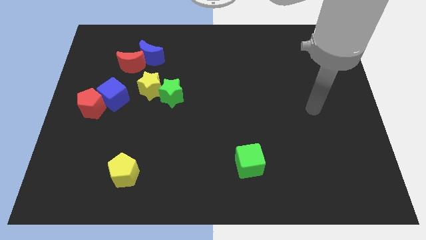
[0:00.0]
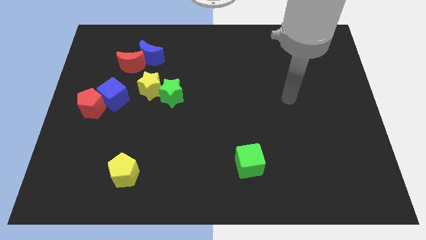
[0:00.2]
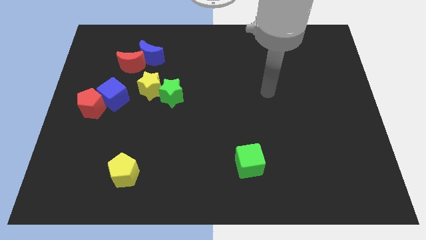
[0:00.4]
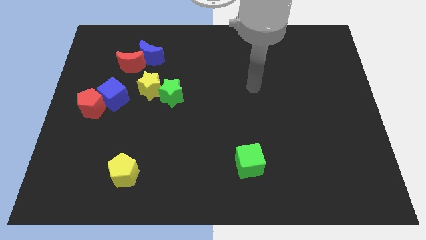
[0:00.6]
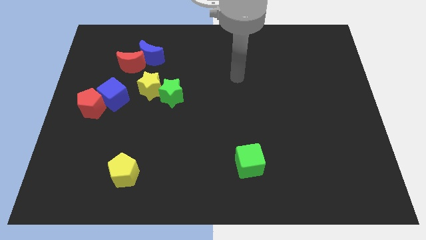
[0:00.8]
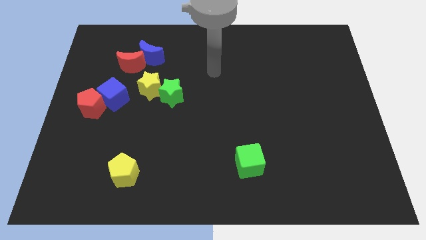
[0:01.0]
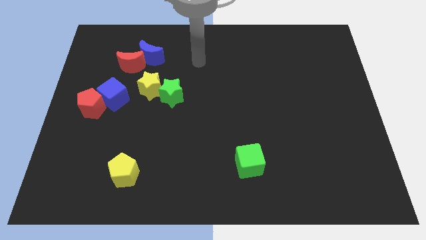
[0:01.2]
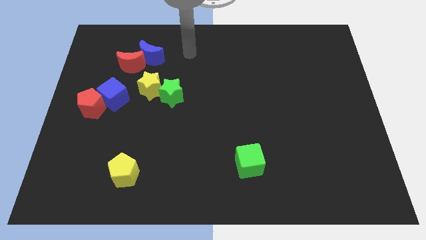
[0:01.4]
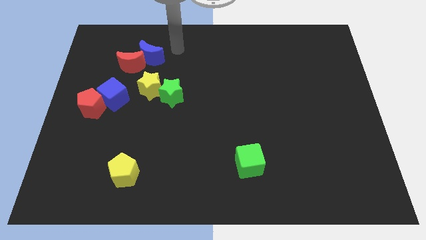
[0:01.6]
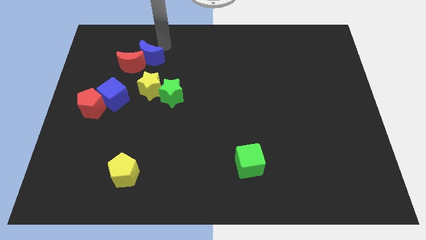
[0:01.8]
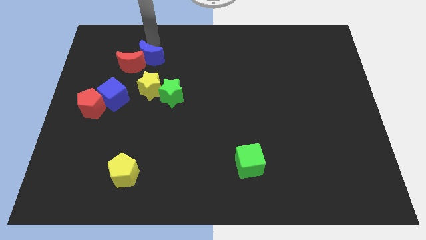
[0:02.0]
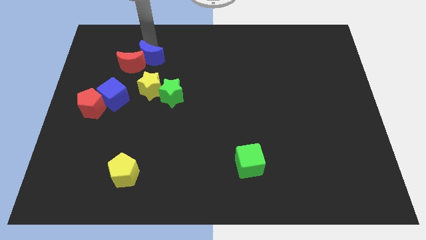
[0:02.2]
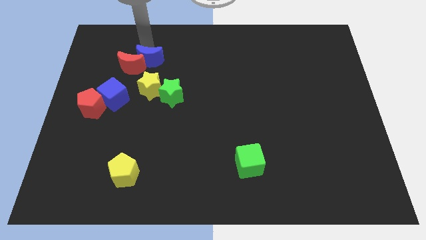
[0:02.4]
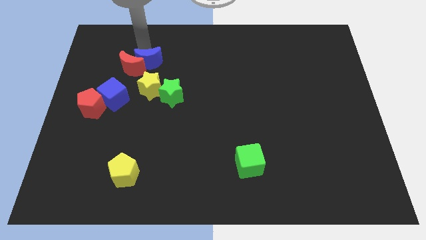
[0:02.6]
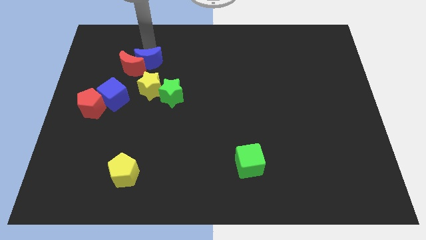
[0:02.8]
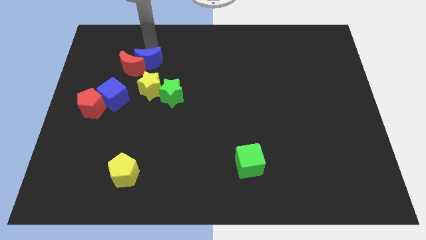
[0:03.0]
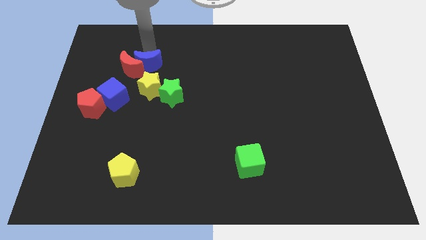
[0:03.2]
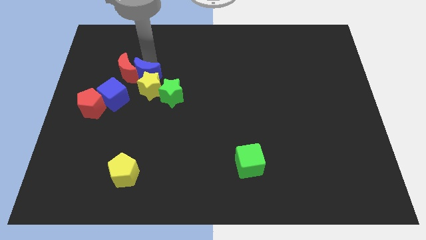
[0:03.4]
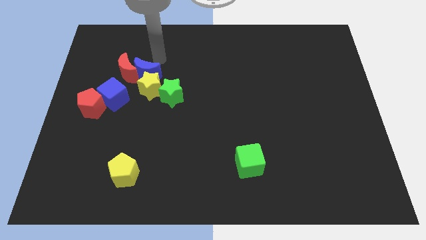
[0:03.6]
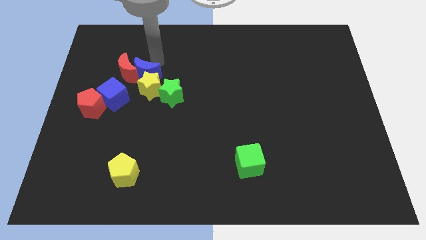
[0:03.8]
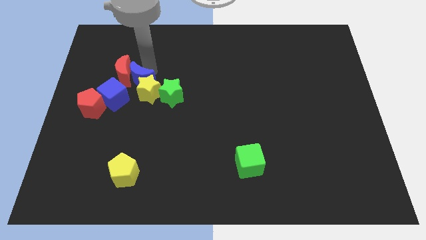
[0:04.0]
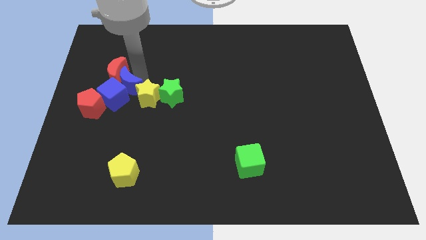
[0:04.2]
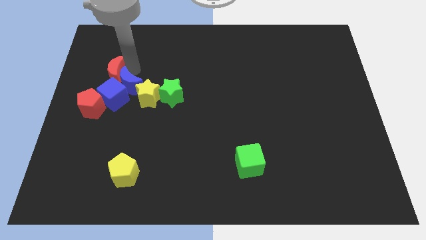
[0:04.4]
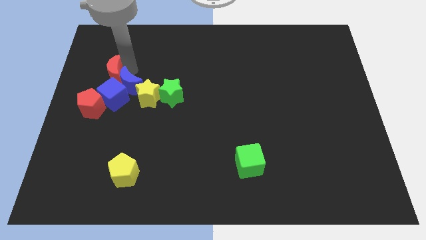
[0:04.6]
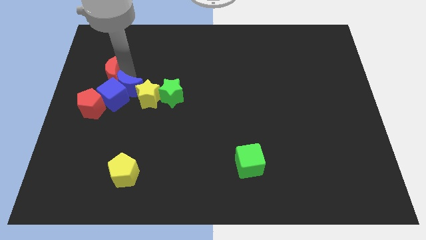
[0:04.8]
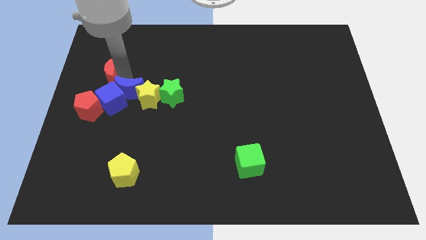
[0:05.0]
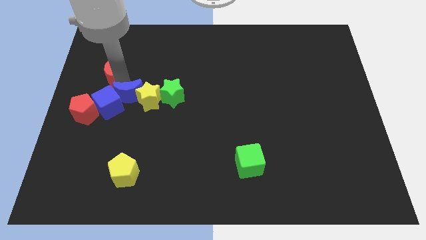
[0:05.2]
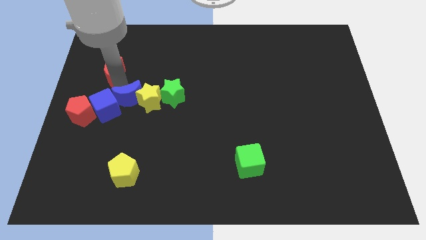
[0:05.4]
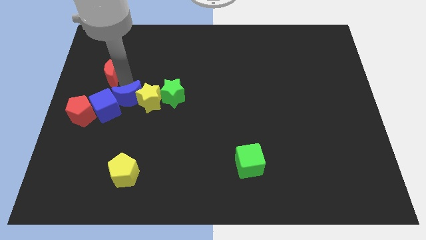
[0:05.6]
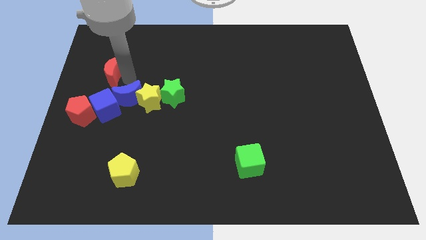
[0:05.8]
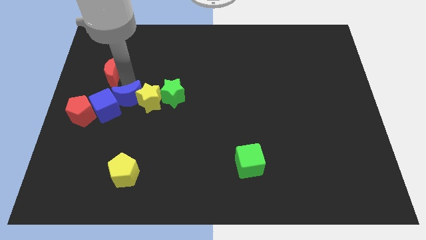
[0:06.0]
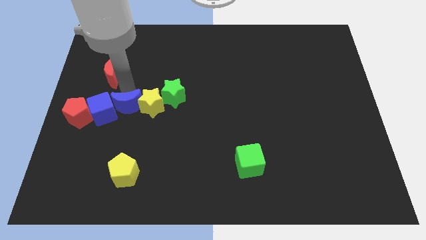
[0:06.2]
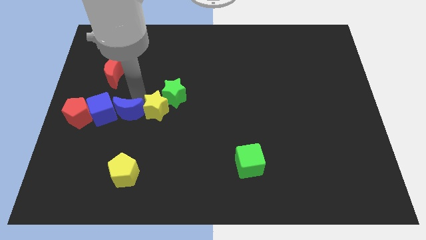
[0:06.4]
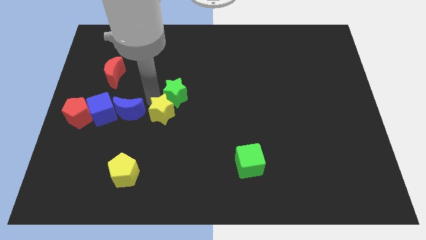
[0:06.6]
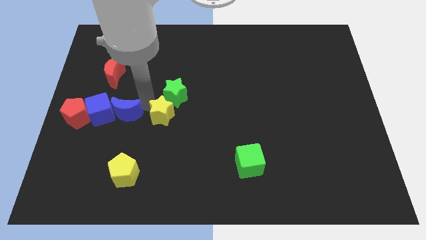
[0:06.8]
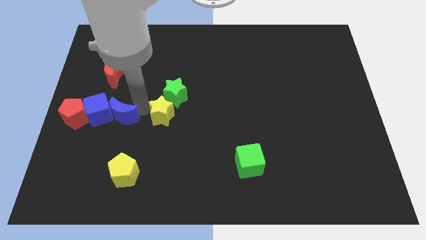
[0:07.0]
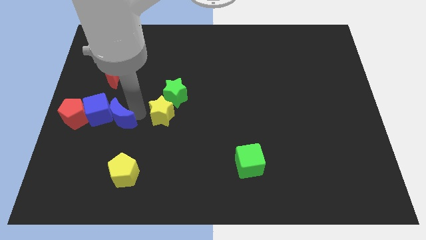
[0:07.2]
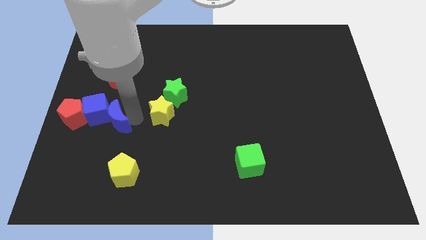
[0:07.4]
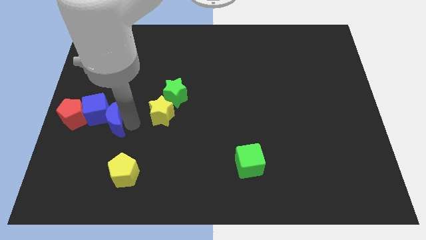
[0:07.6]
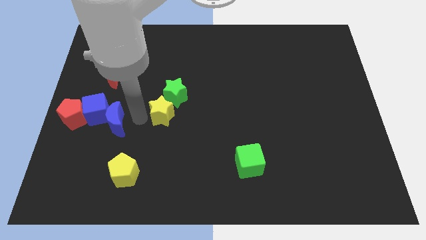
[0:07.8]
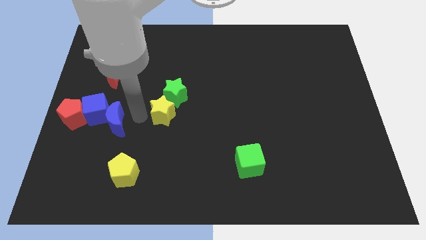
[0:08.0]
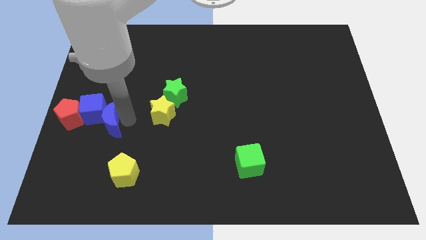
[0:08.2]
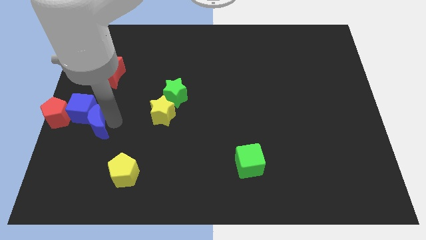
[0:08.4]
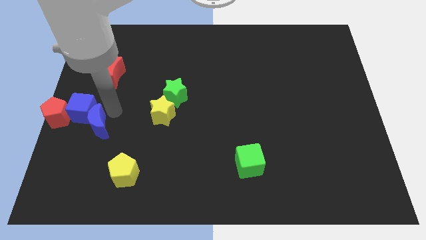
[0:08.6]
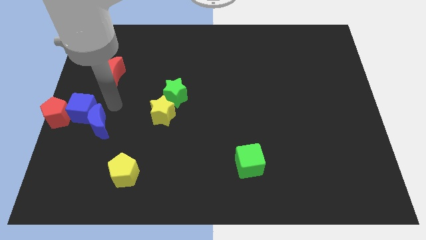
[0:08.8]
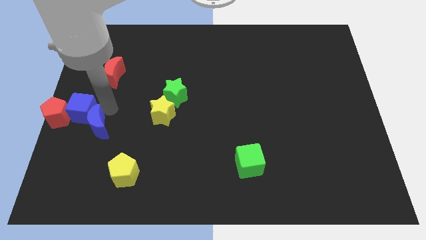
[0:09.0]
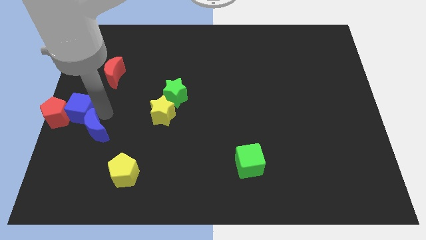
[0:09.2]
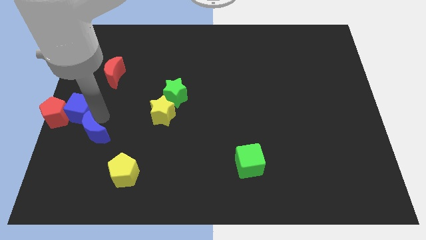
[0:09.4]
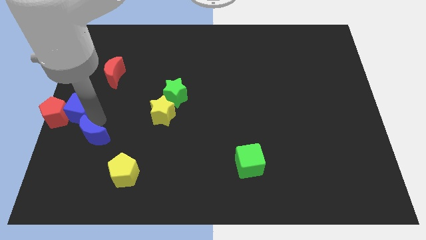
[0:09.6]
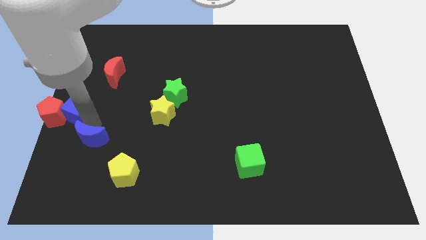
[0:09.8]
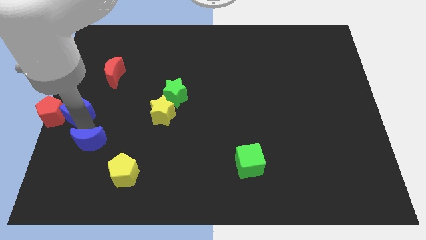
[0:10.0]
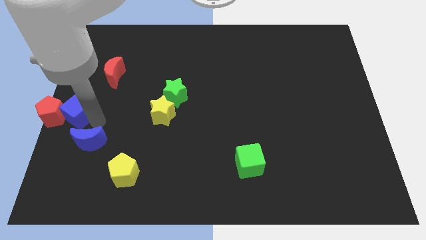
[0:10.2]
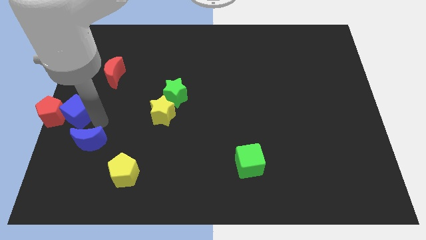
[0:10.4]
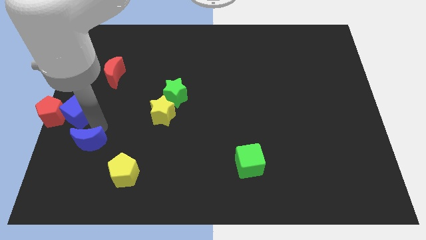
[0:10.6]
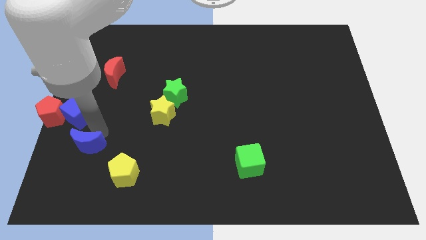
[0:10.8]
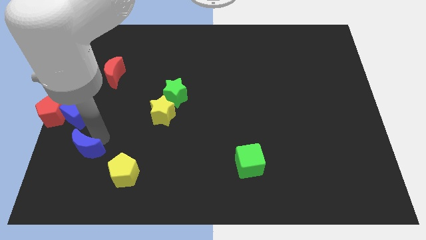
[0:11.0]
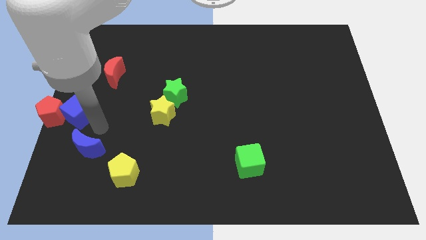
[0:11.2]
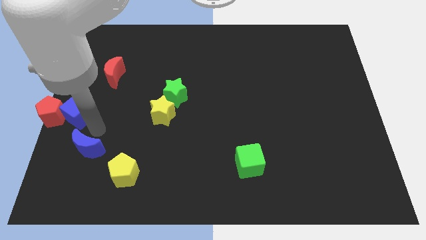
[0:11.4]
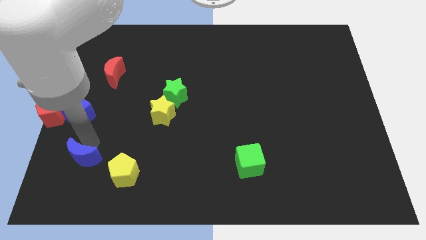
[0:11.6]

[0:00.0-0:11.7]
push the blue moon to the left of the yellow pentagon

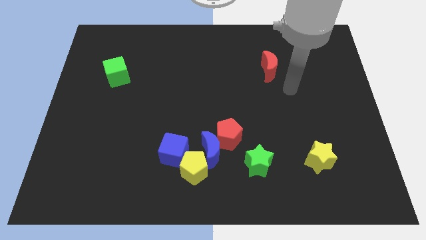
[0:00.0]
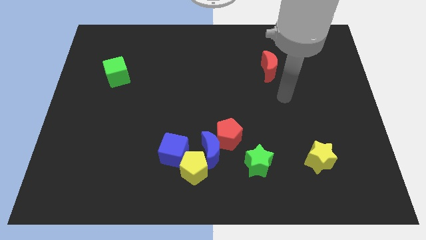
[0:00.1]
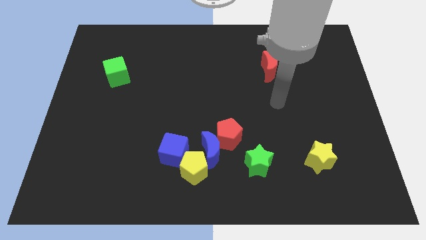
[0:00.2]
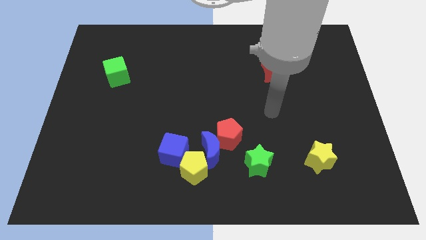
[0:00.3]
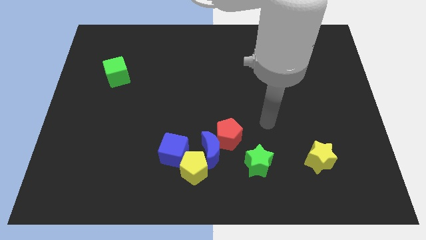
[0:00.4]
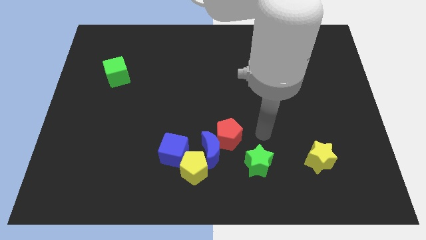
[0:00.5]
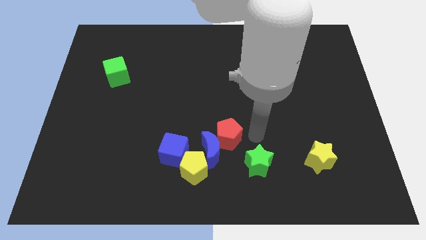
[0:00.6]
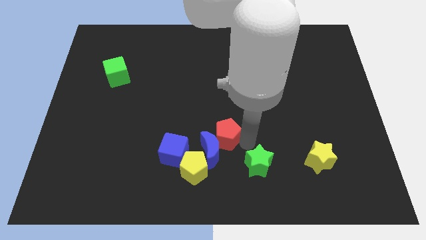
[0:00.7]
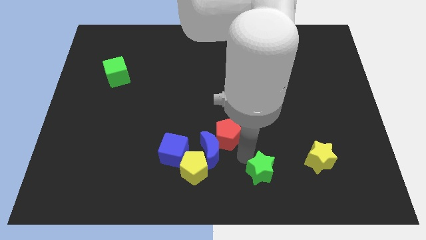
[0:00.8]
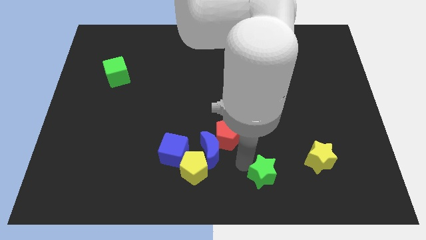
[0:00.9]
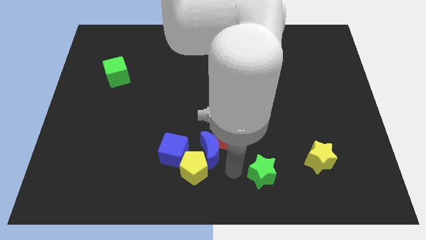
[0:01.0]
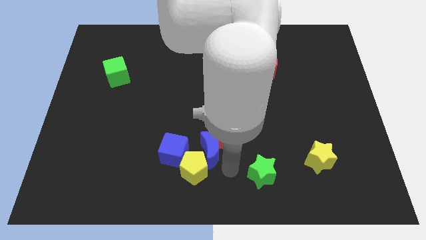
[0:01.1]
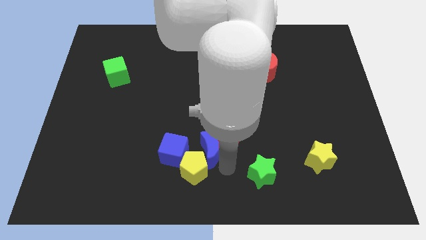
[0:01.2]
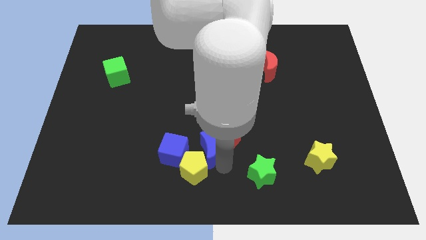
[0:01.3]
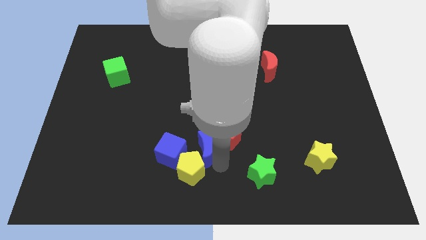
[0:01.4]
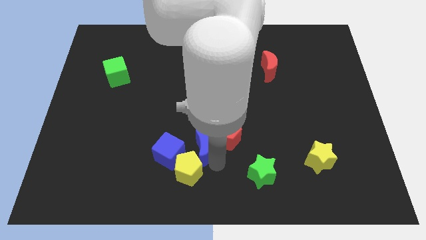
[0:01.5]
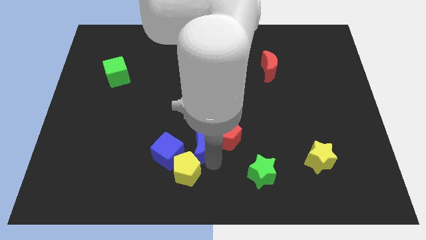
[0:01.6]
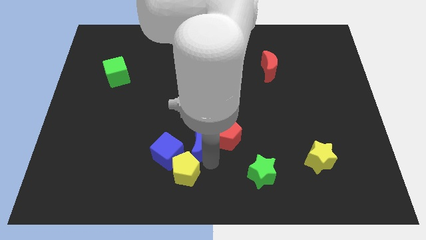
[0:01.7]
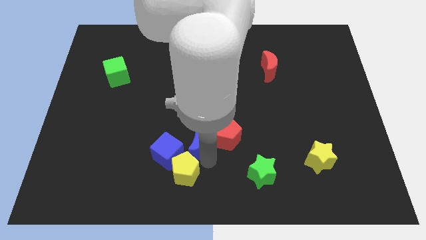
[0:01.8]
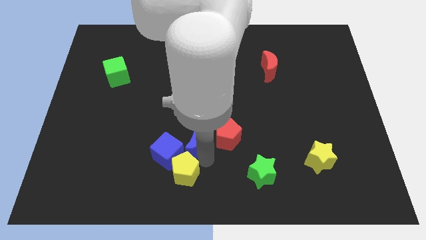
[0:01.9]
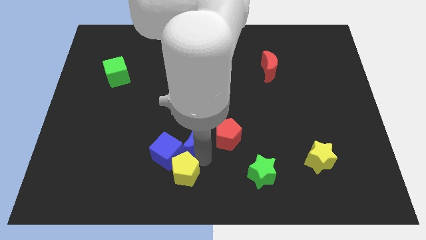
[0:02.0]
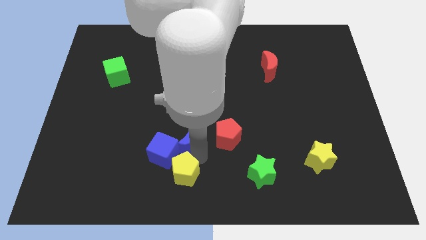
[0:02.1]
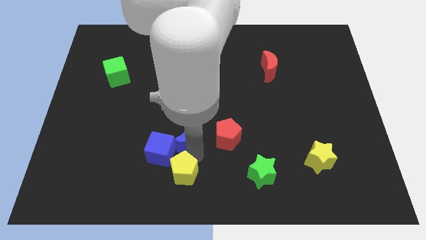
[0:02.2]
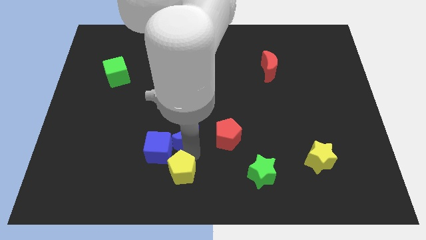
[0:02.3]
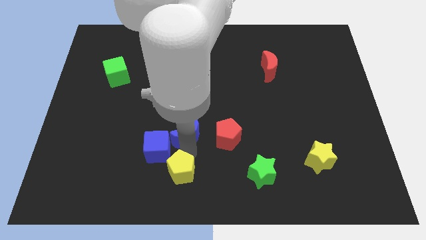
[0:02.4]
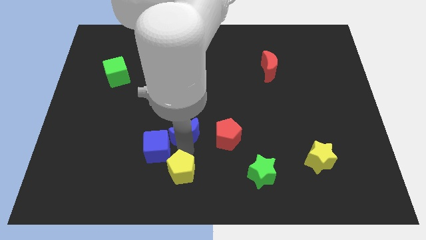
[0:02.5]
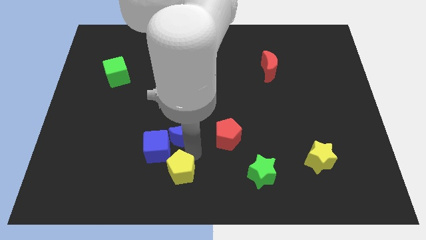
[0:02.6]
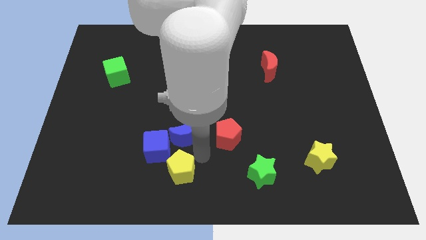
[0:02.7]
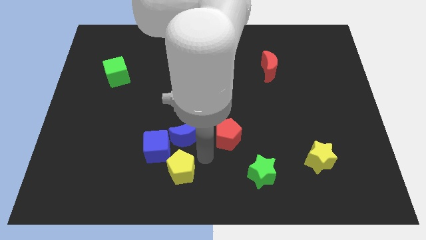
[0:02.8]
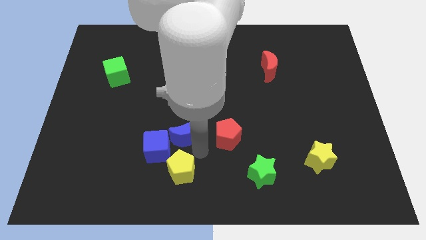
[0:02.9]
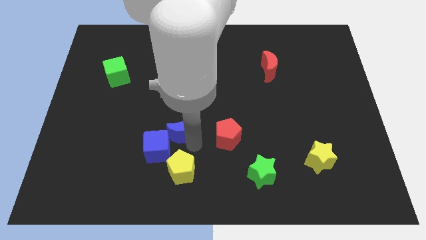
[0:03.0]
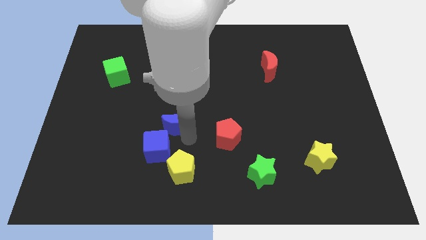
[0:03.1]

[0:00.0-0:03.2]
slide the blue moon to the top of the blue cube
